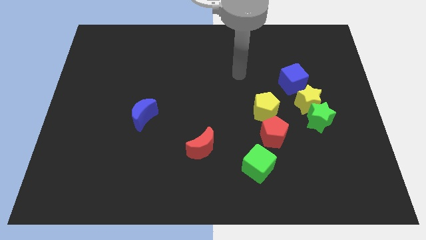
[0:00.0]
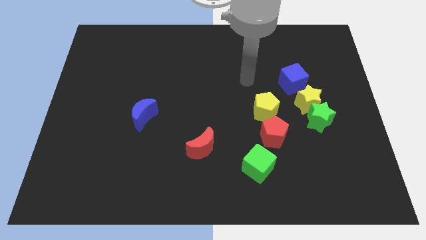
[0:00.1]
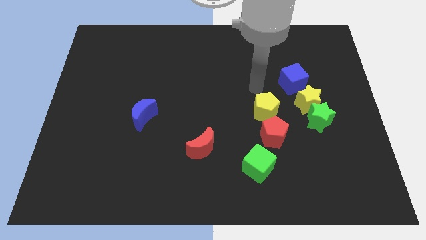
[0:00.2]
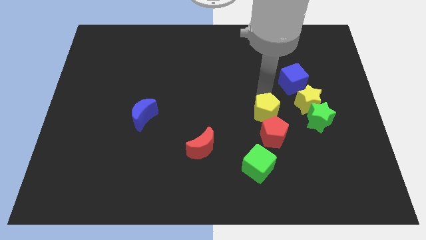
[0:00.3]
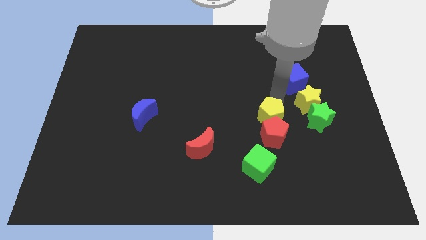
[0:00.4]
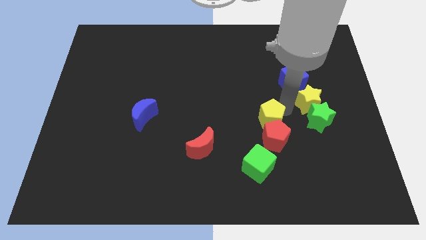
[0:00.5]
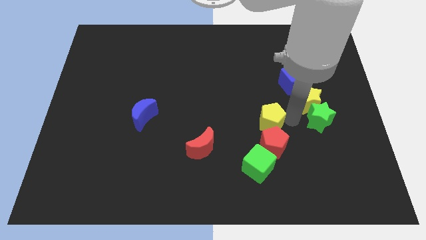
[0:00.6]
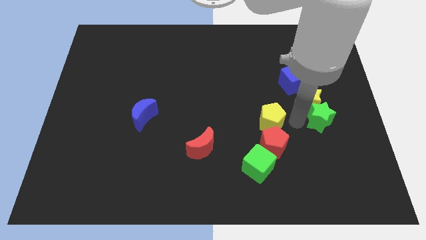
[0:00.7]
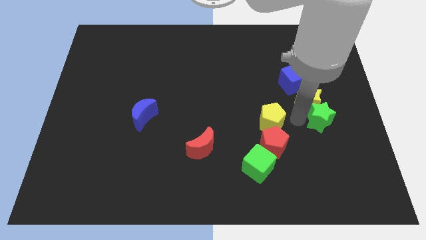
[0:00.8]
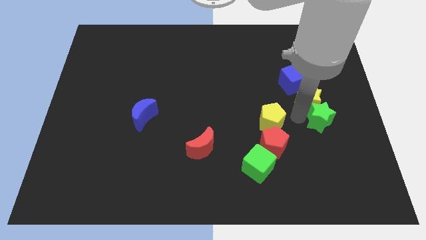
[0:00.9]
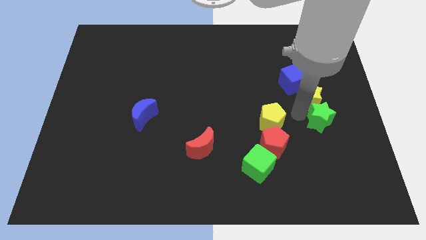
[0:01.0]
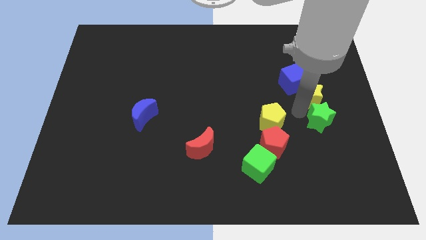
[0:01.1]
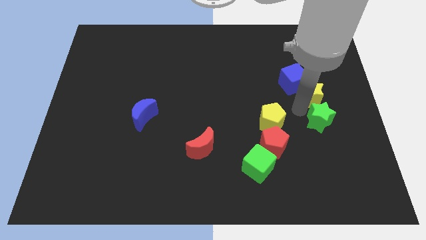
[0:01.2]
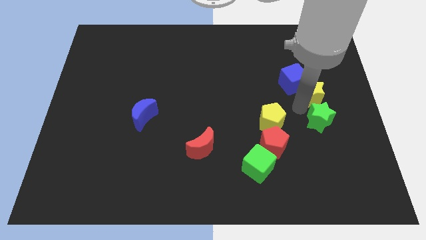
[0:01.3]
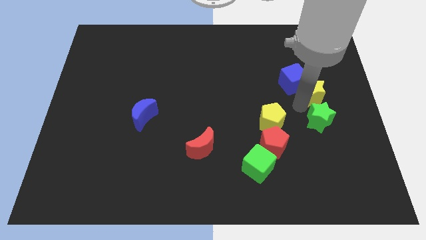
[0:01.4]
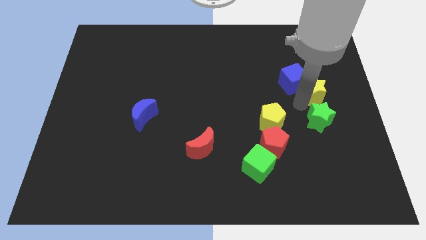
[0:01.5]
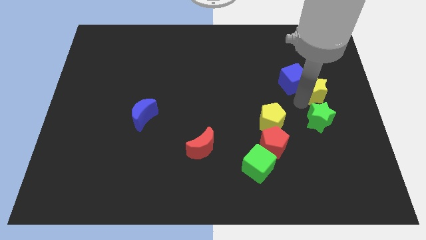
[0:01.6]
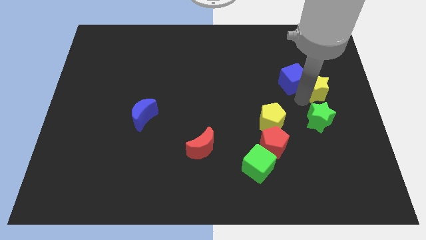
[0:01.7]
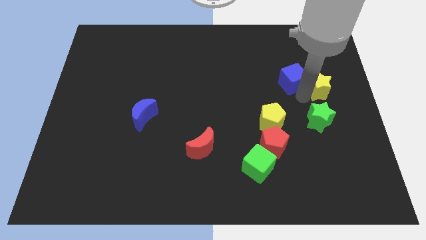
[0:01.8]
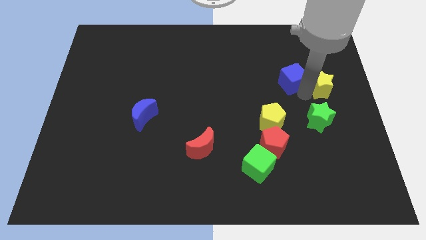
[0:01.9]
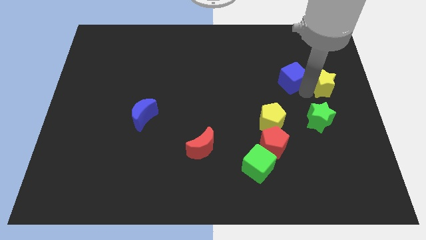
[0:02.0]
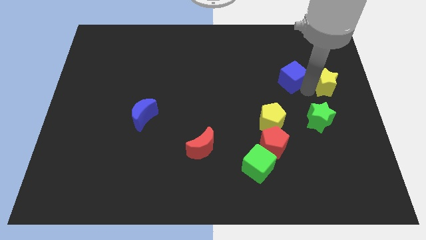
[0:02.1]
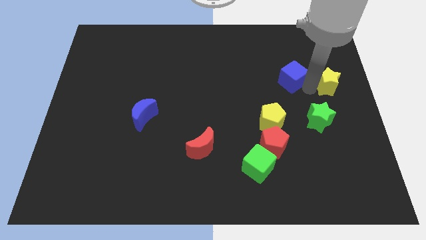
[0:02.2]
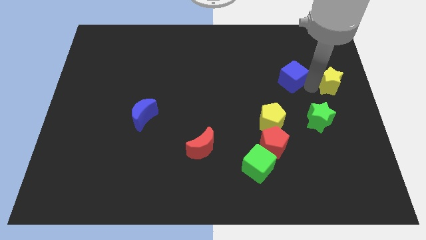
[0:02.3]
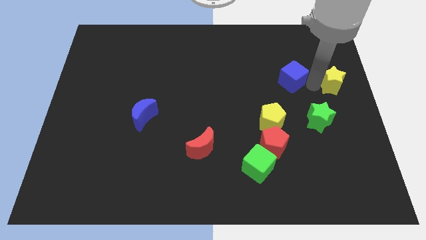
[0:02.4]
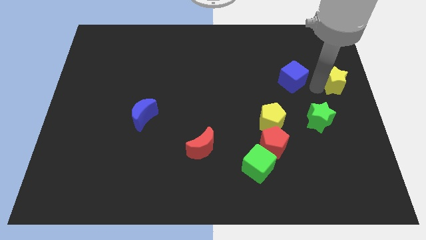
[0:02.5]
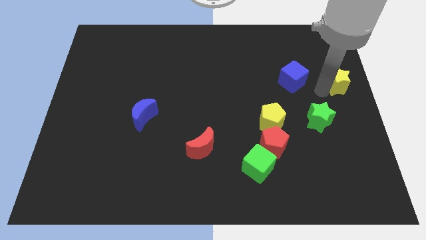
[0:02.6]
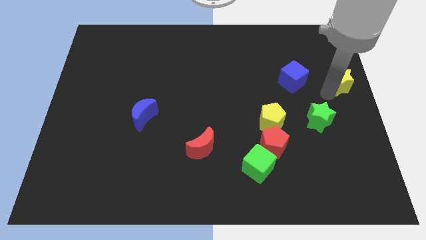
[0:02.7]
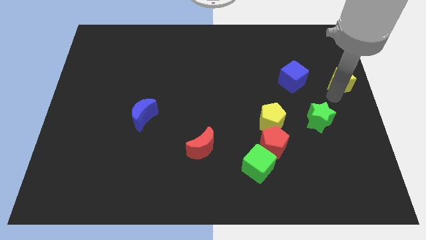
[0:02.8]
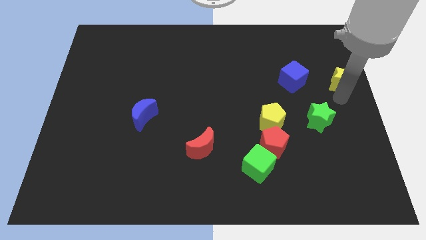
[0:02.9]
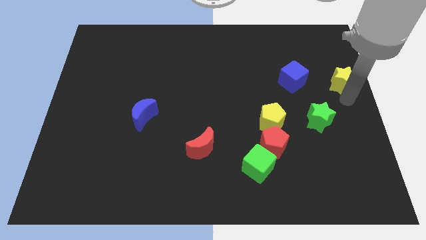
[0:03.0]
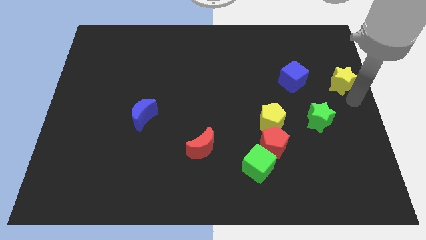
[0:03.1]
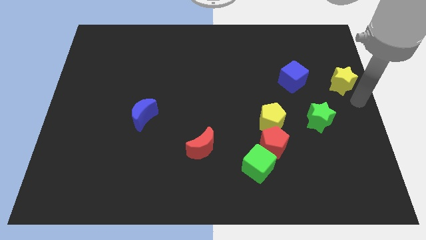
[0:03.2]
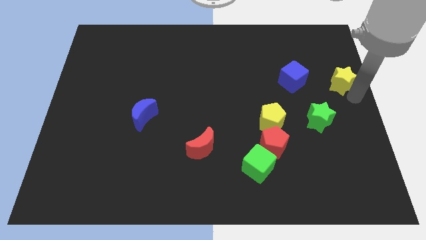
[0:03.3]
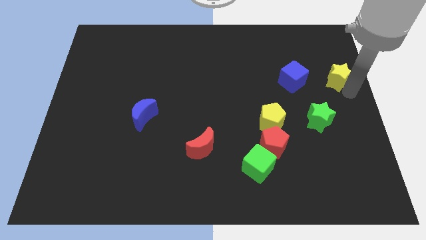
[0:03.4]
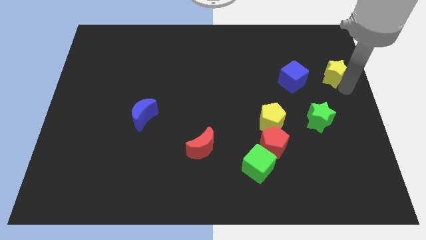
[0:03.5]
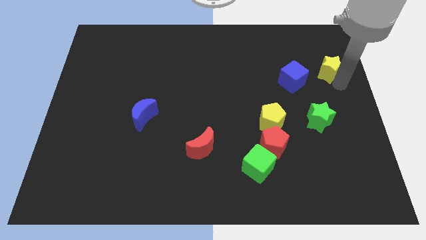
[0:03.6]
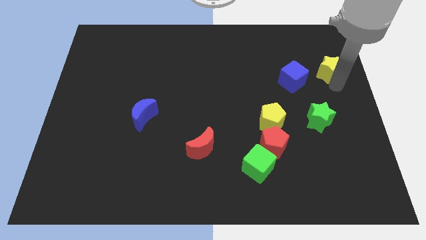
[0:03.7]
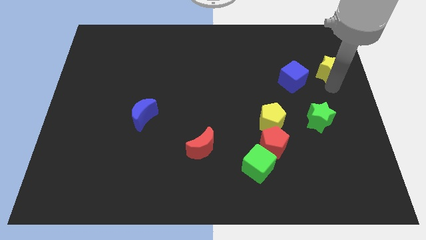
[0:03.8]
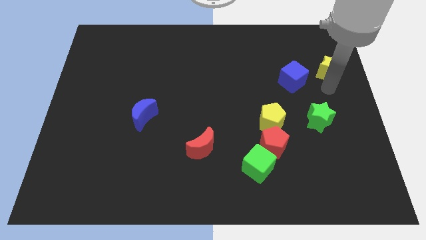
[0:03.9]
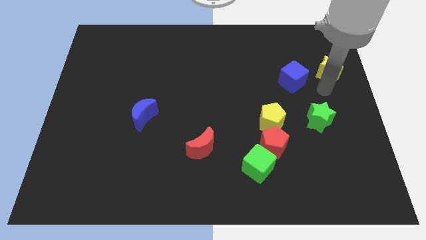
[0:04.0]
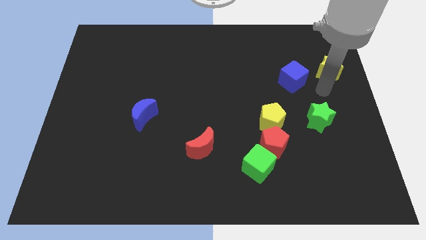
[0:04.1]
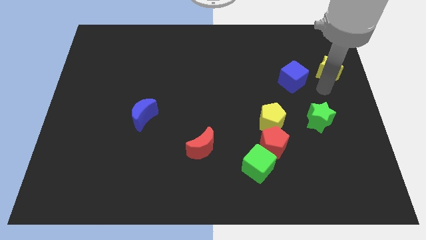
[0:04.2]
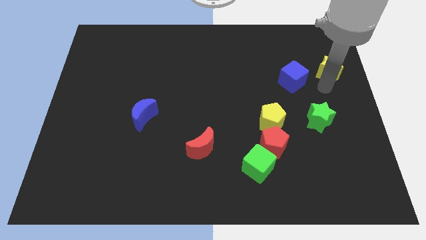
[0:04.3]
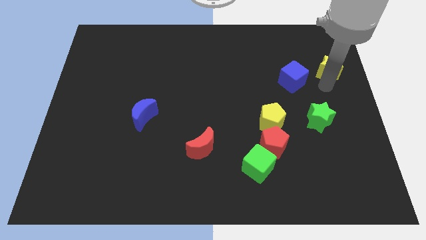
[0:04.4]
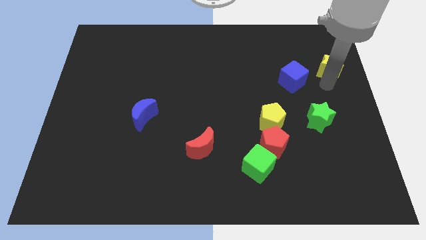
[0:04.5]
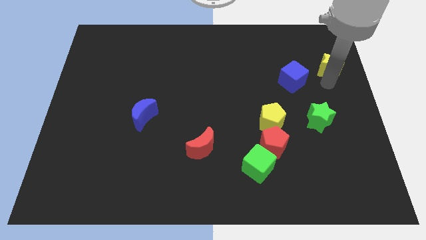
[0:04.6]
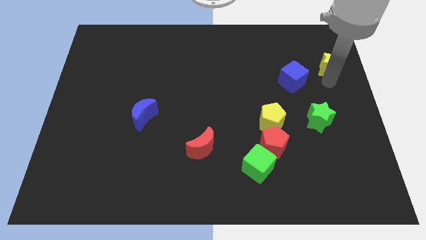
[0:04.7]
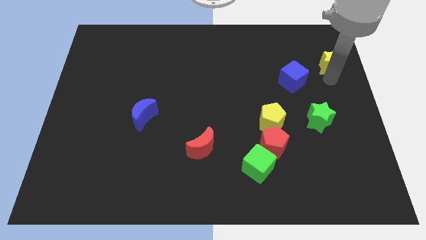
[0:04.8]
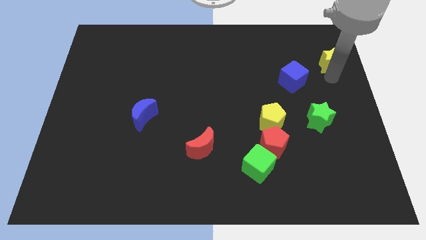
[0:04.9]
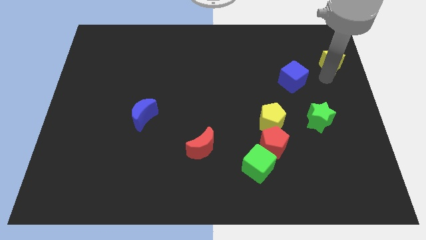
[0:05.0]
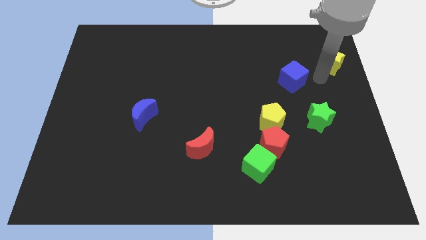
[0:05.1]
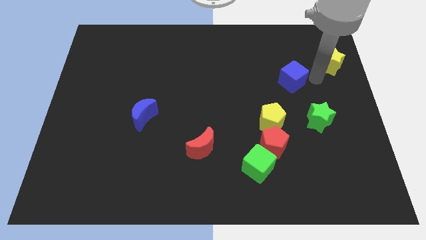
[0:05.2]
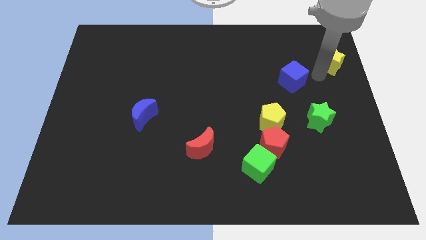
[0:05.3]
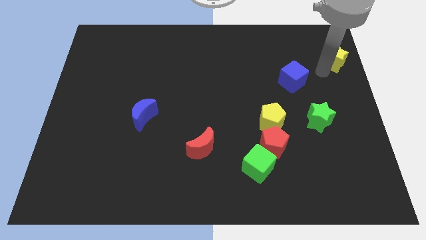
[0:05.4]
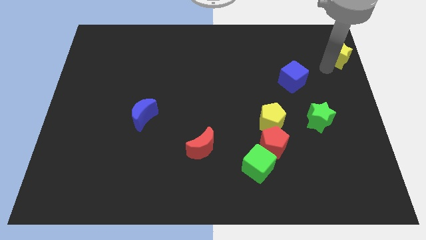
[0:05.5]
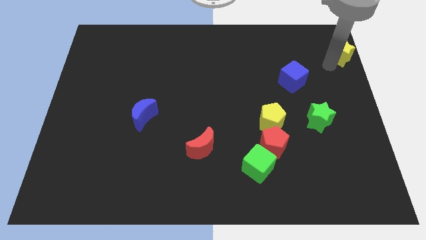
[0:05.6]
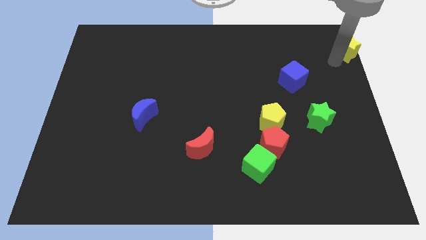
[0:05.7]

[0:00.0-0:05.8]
move the yellow star to the top right

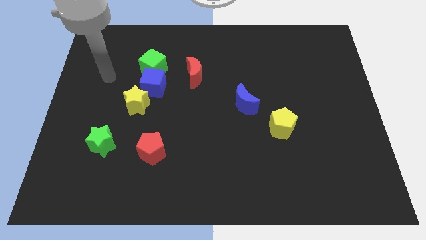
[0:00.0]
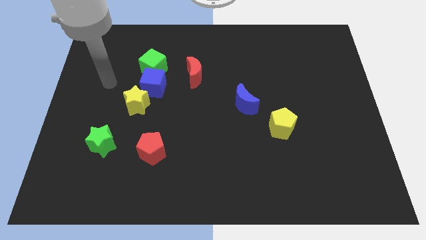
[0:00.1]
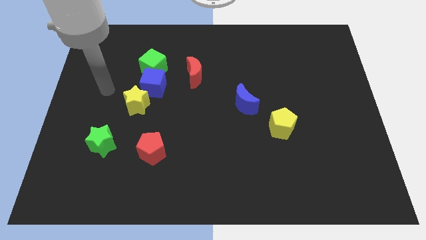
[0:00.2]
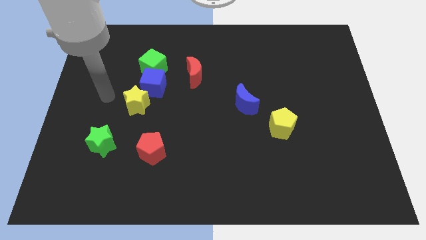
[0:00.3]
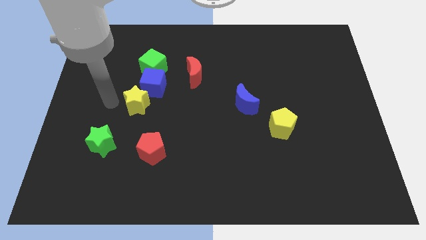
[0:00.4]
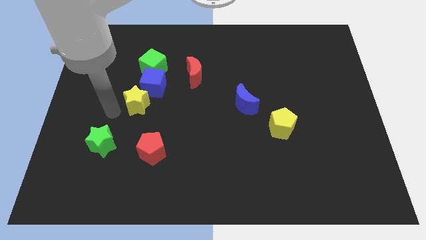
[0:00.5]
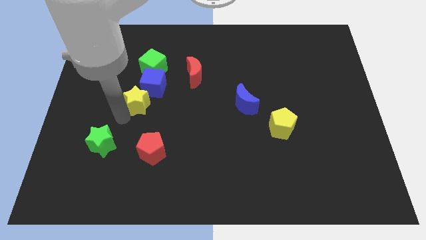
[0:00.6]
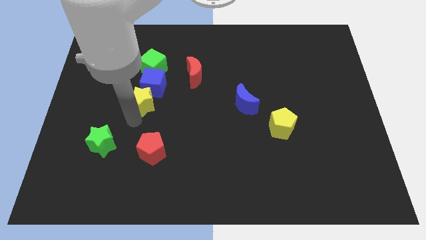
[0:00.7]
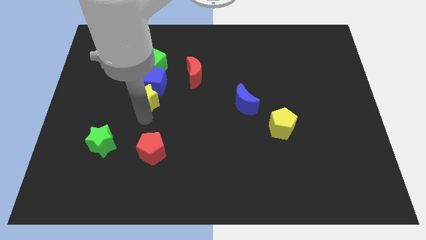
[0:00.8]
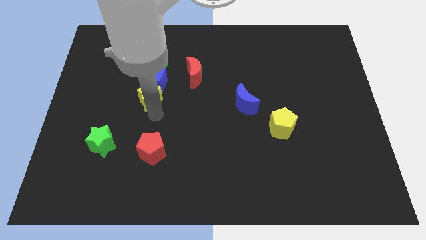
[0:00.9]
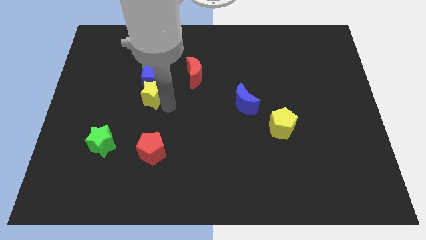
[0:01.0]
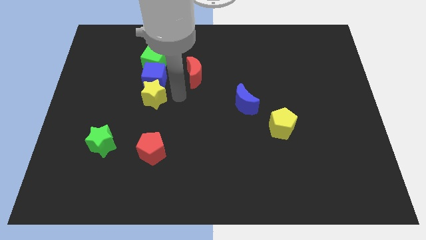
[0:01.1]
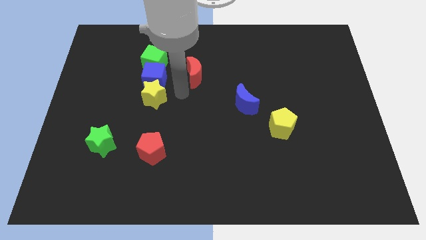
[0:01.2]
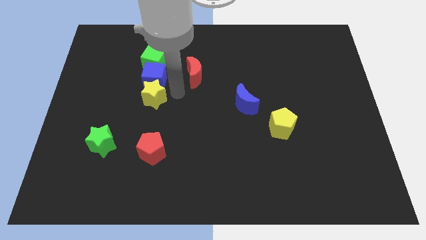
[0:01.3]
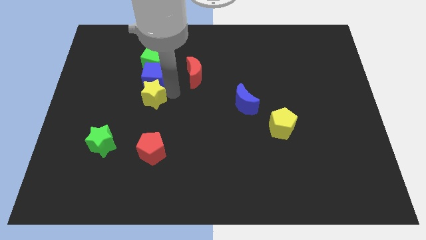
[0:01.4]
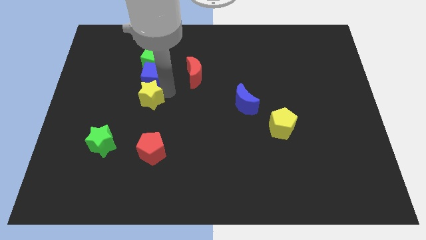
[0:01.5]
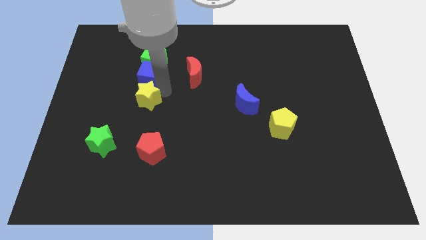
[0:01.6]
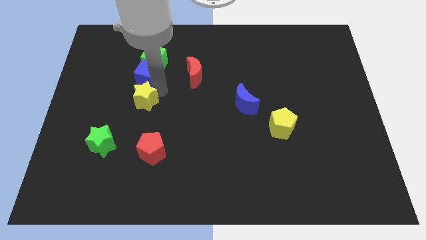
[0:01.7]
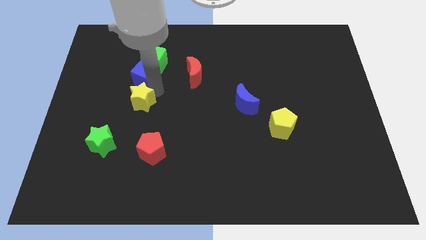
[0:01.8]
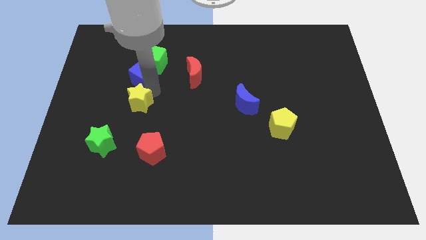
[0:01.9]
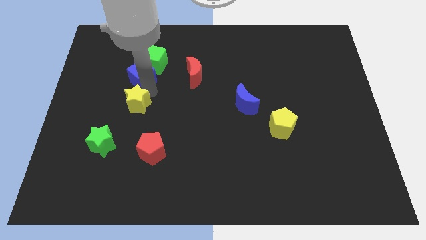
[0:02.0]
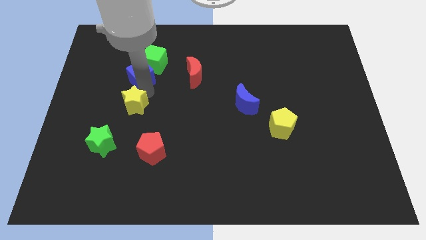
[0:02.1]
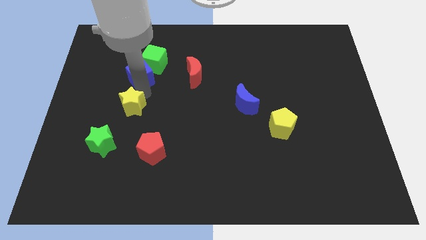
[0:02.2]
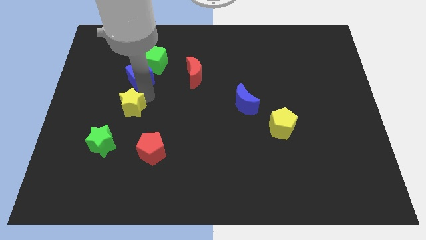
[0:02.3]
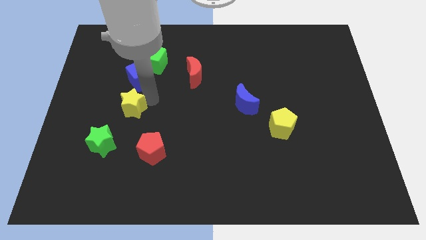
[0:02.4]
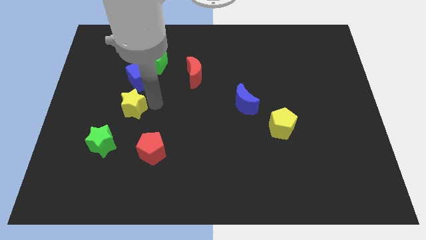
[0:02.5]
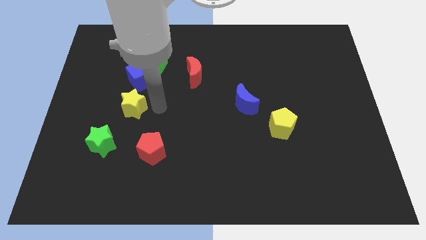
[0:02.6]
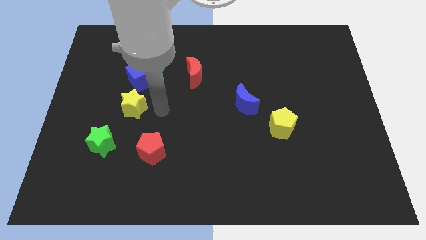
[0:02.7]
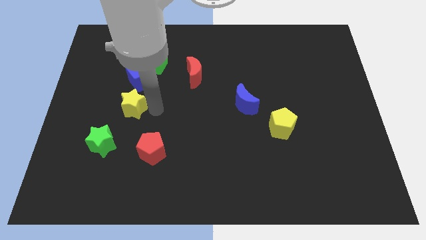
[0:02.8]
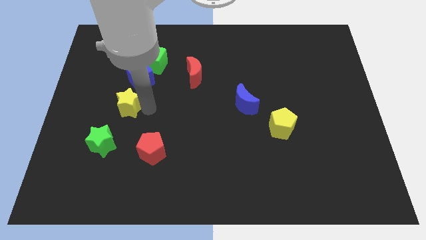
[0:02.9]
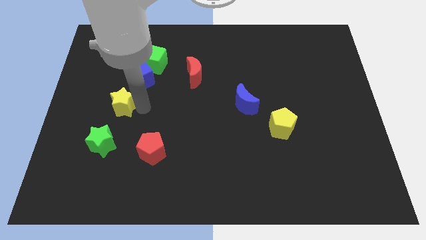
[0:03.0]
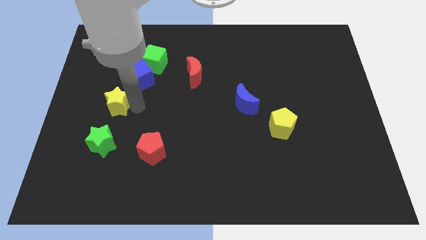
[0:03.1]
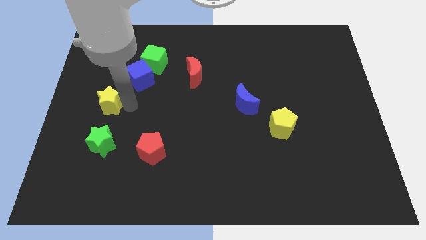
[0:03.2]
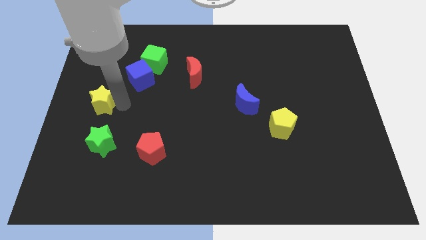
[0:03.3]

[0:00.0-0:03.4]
slide the yellow star to the left side
